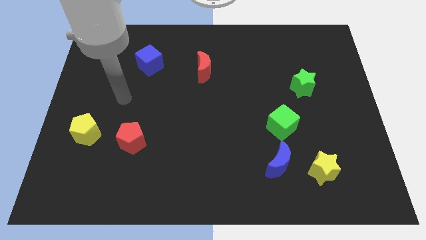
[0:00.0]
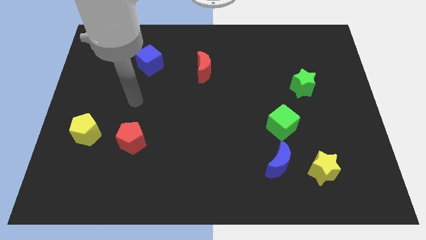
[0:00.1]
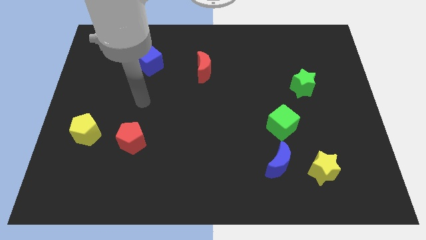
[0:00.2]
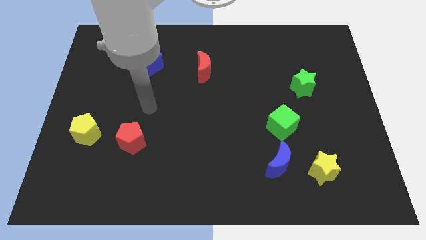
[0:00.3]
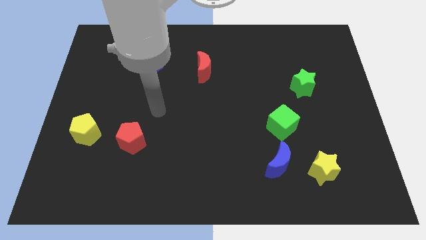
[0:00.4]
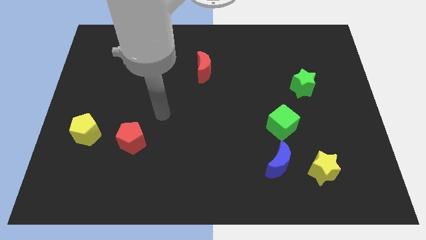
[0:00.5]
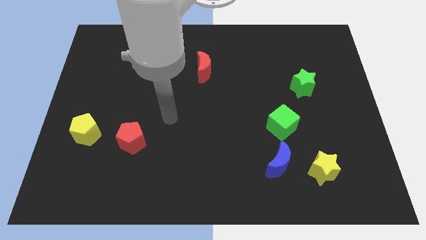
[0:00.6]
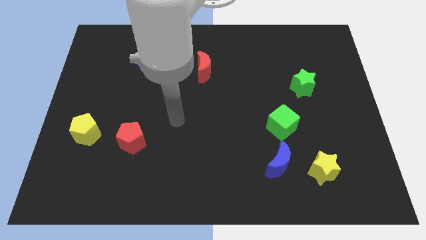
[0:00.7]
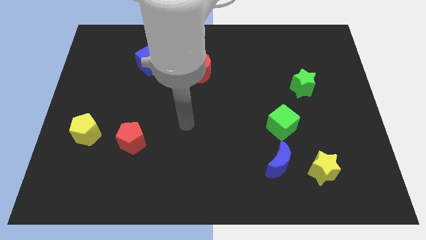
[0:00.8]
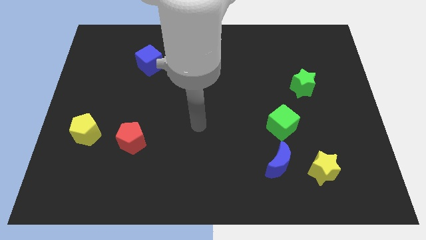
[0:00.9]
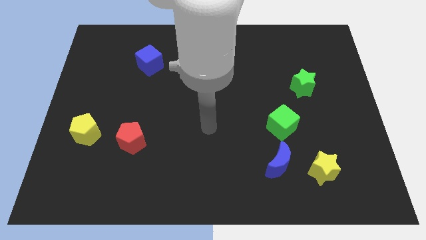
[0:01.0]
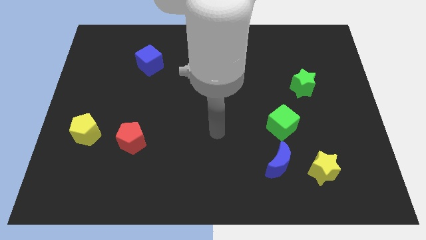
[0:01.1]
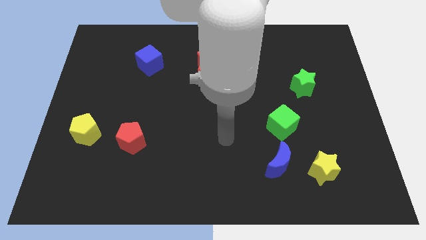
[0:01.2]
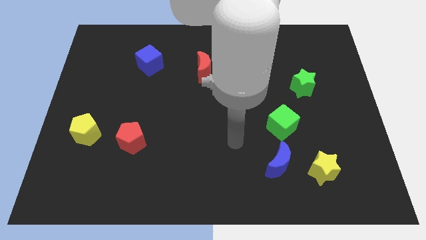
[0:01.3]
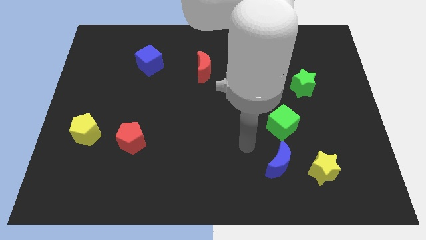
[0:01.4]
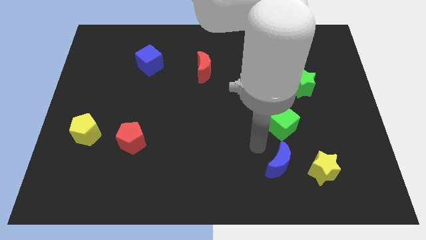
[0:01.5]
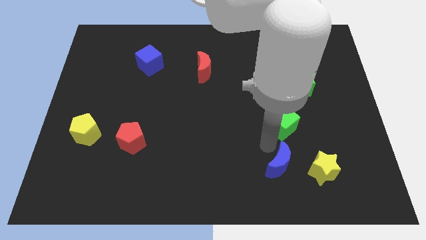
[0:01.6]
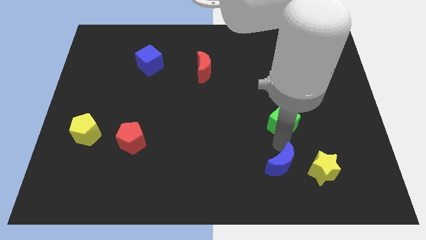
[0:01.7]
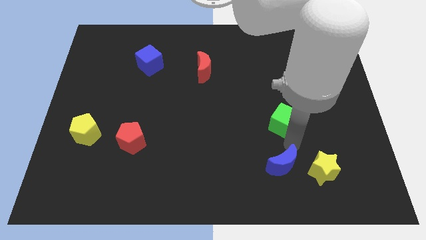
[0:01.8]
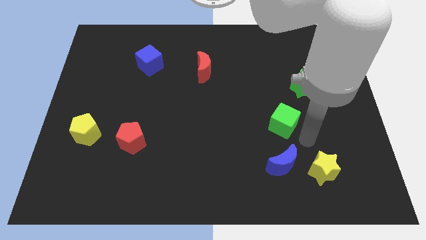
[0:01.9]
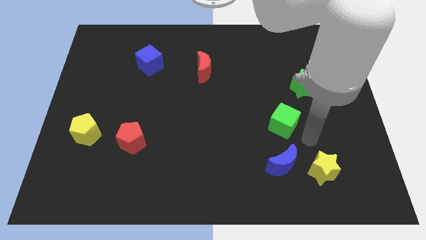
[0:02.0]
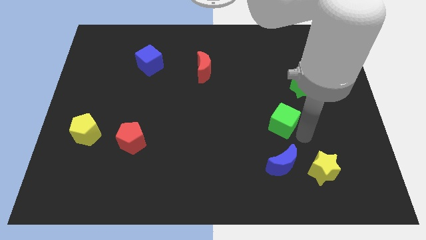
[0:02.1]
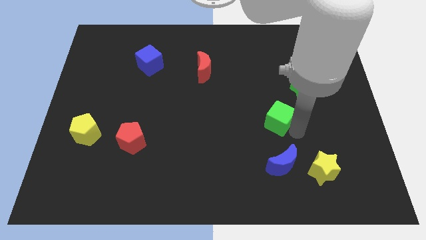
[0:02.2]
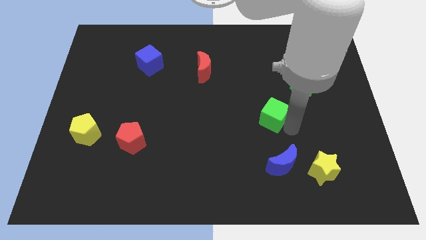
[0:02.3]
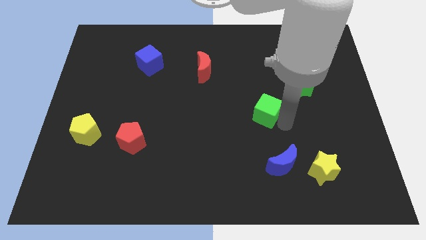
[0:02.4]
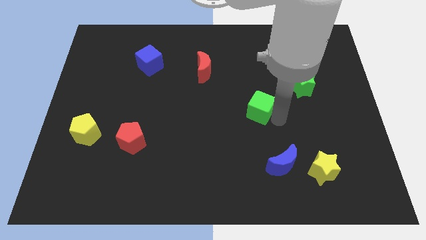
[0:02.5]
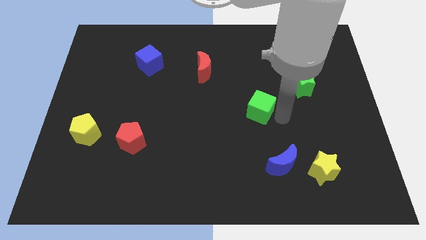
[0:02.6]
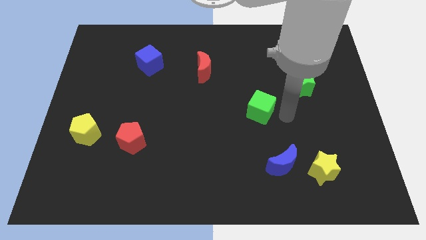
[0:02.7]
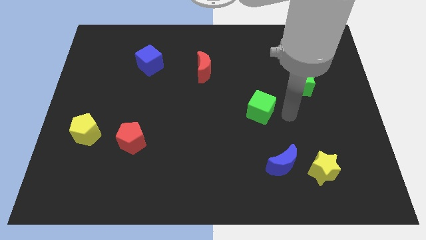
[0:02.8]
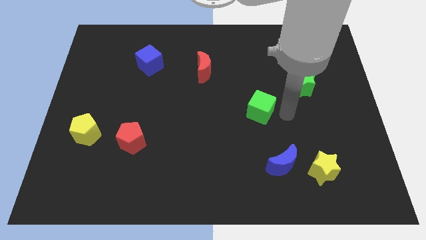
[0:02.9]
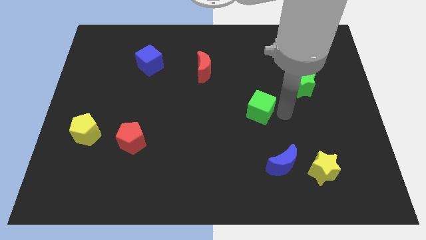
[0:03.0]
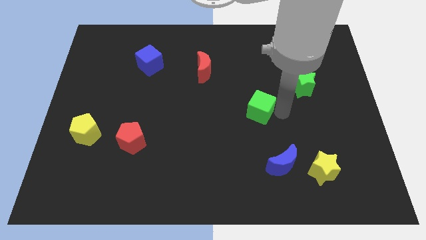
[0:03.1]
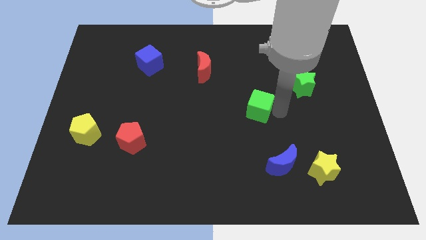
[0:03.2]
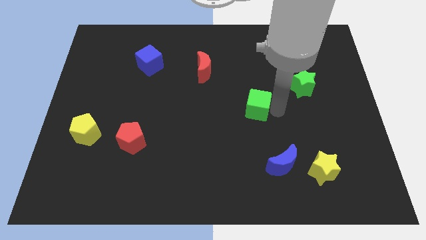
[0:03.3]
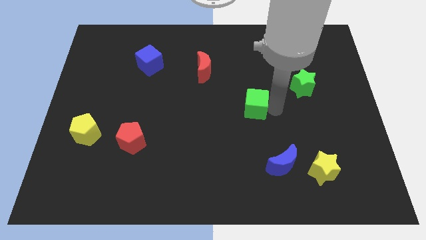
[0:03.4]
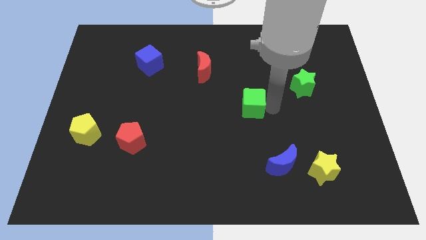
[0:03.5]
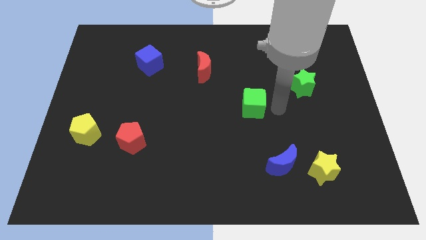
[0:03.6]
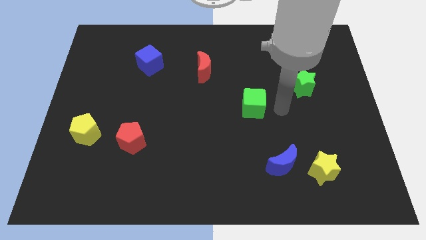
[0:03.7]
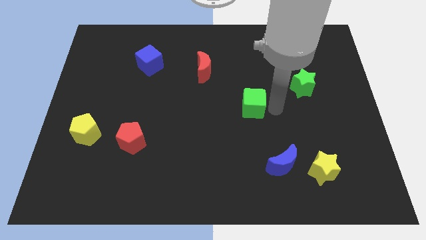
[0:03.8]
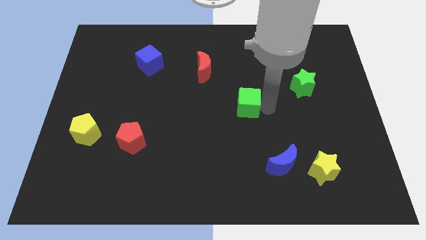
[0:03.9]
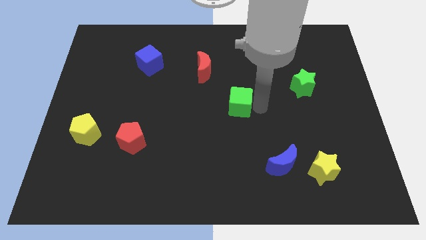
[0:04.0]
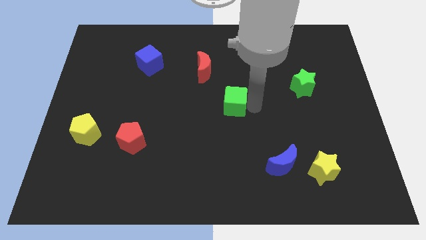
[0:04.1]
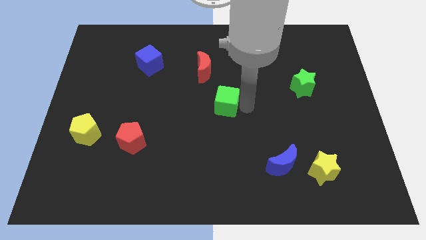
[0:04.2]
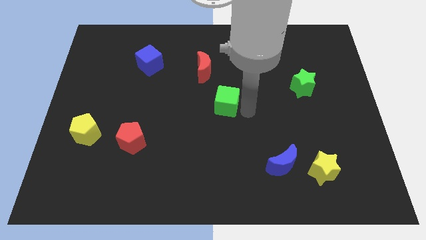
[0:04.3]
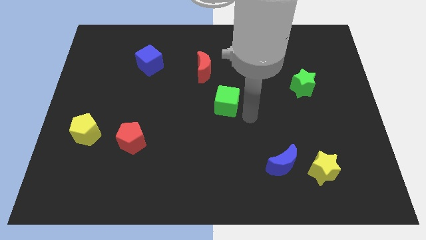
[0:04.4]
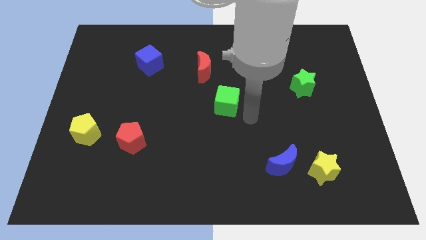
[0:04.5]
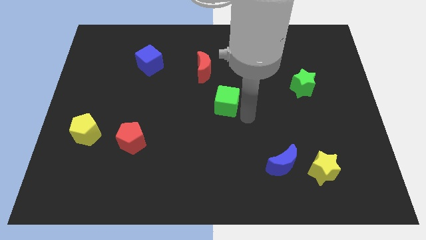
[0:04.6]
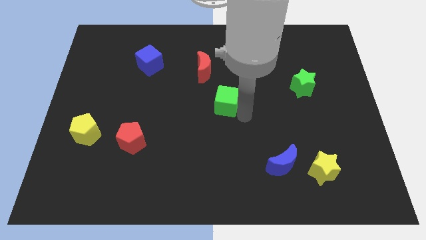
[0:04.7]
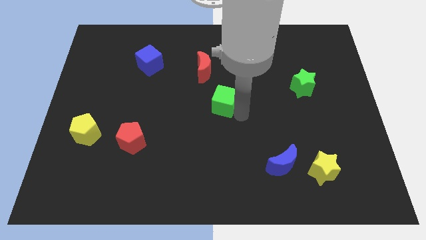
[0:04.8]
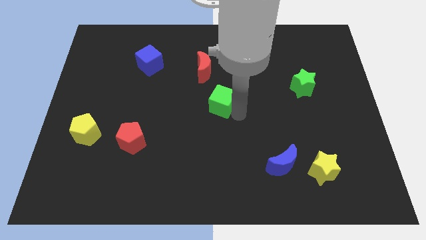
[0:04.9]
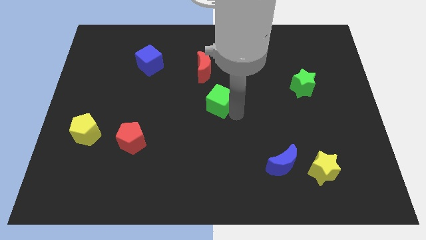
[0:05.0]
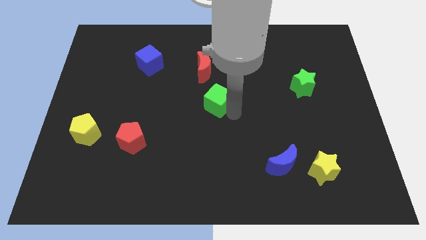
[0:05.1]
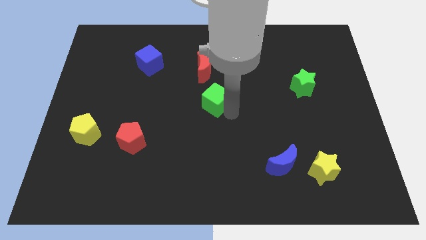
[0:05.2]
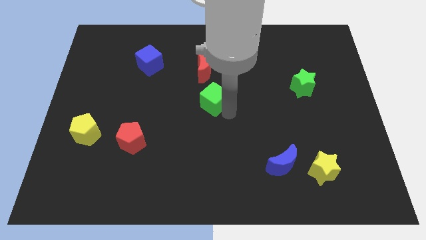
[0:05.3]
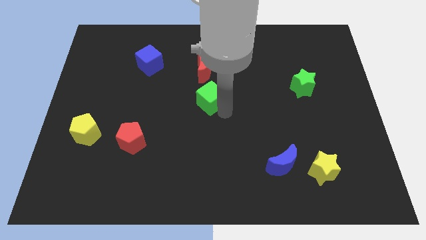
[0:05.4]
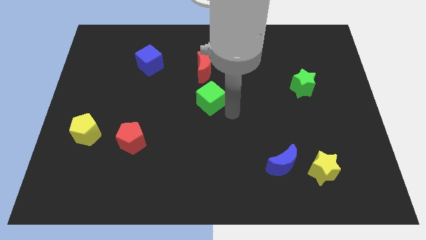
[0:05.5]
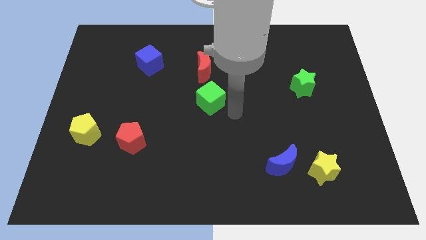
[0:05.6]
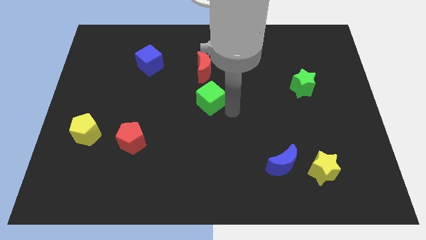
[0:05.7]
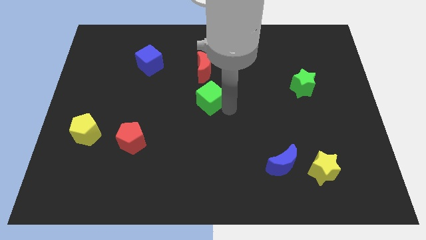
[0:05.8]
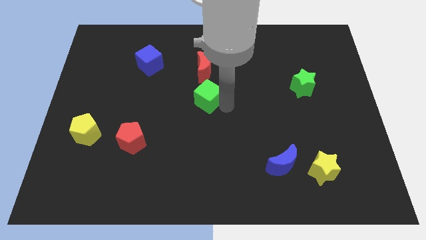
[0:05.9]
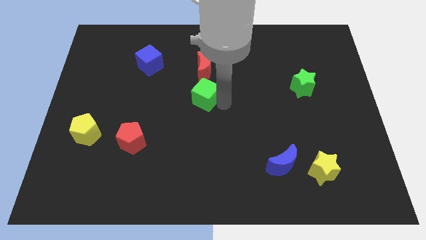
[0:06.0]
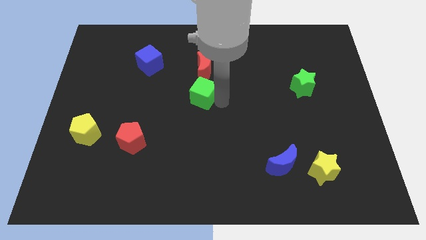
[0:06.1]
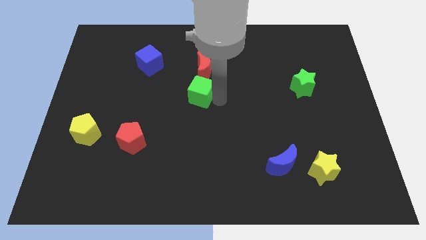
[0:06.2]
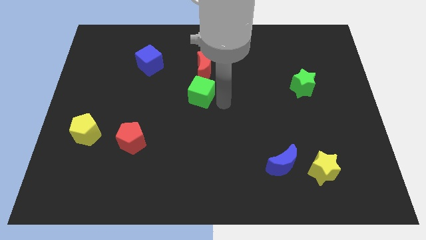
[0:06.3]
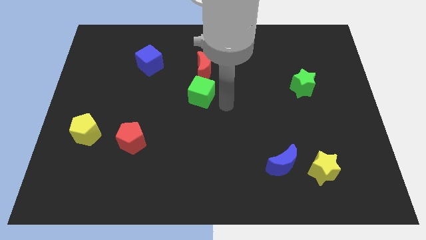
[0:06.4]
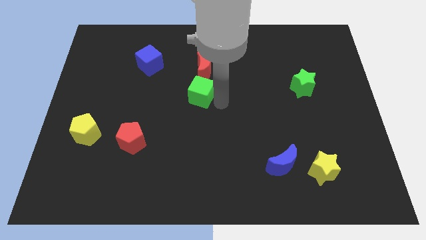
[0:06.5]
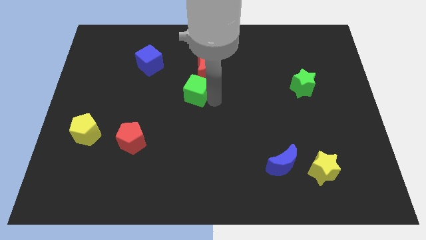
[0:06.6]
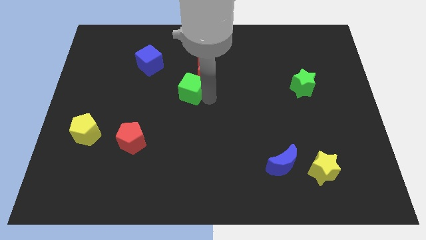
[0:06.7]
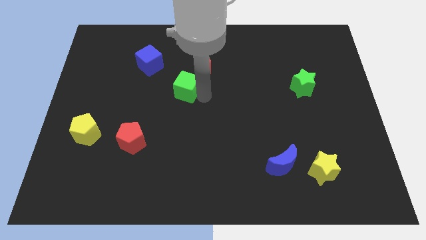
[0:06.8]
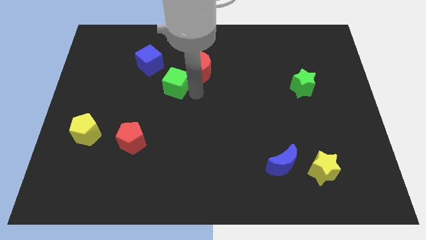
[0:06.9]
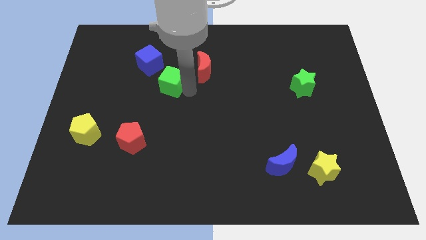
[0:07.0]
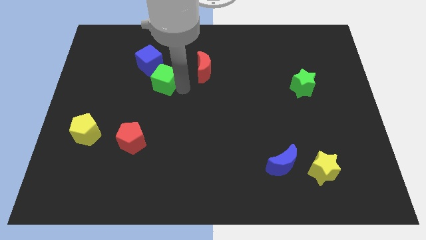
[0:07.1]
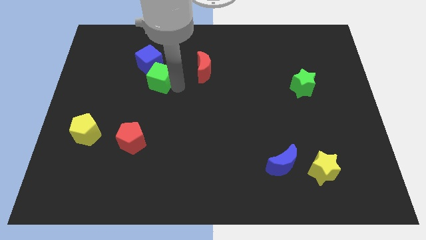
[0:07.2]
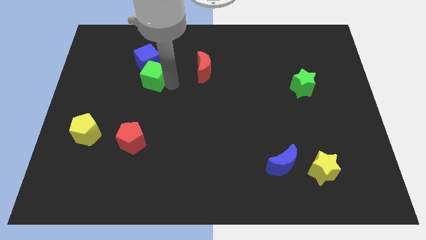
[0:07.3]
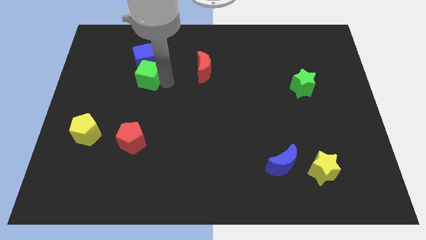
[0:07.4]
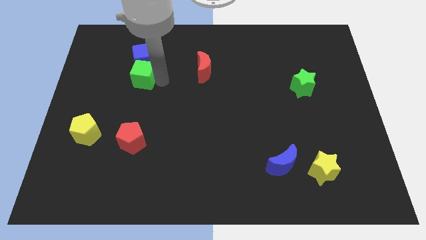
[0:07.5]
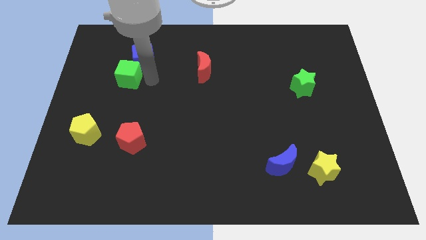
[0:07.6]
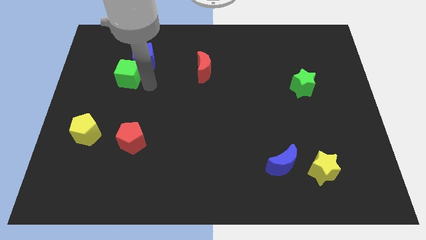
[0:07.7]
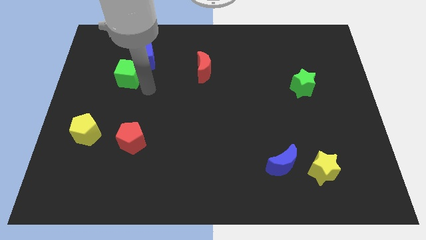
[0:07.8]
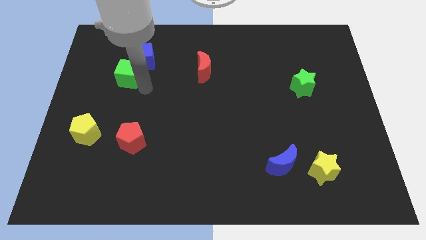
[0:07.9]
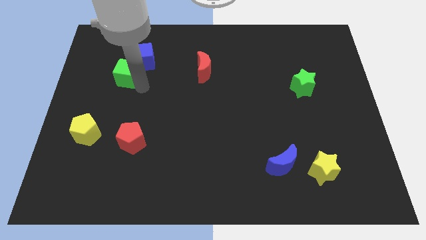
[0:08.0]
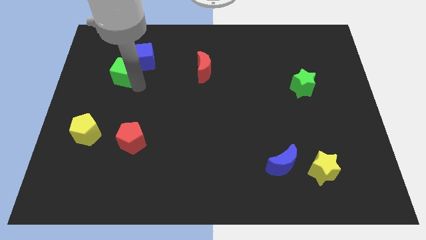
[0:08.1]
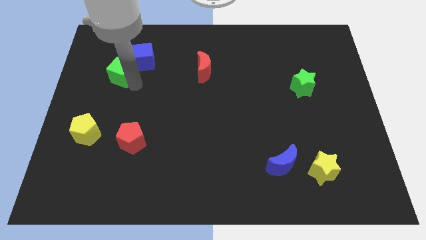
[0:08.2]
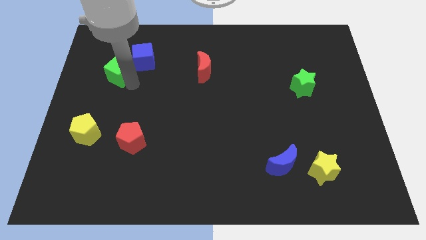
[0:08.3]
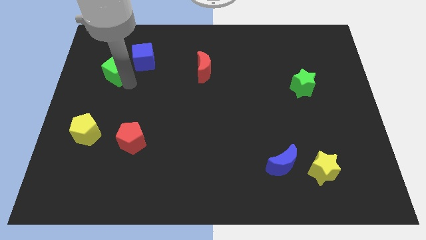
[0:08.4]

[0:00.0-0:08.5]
move the green cube to the left of the blue cube
